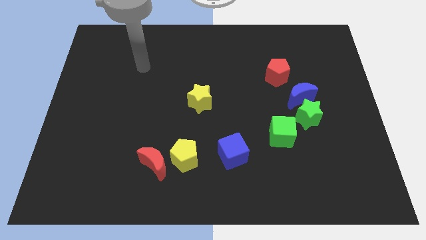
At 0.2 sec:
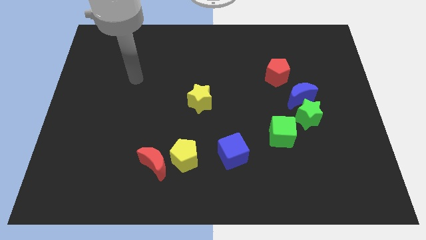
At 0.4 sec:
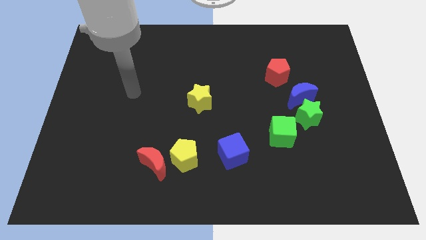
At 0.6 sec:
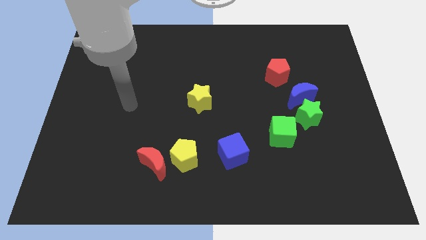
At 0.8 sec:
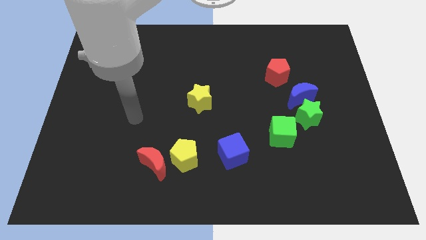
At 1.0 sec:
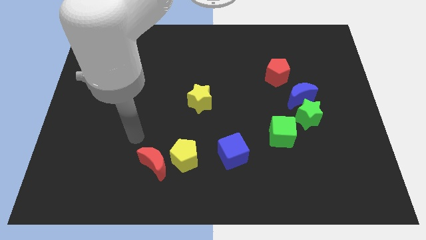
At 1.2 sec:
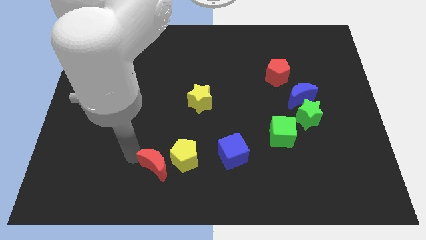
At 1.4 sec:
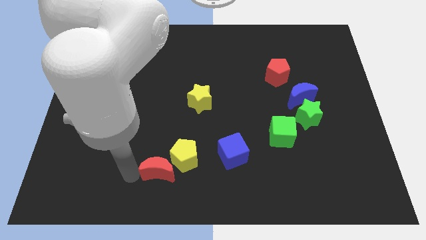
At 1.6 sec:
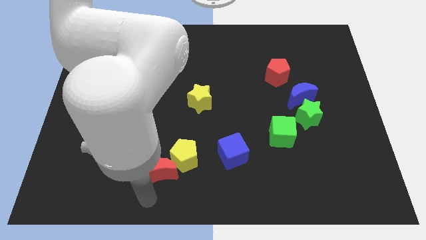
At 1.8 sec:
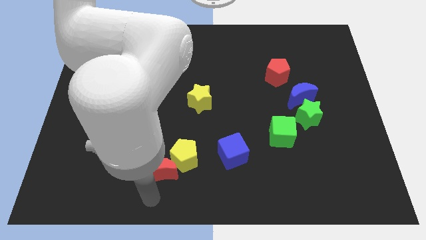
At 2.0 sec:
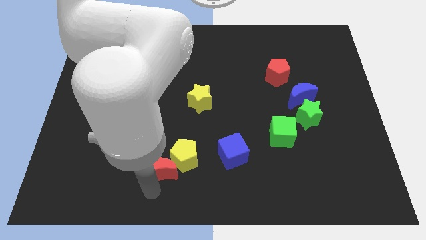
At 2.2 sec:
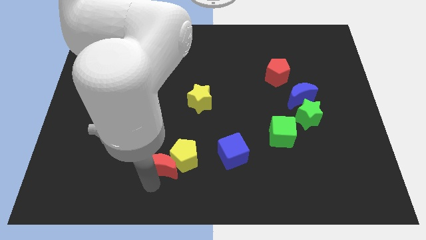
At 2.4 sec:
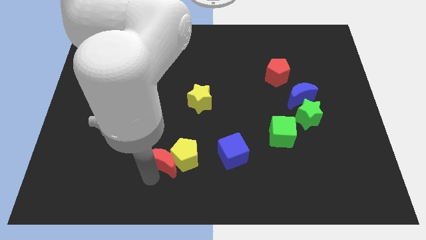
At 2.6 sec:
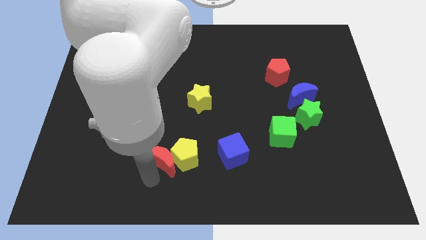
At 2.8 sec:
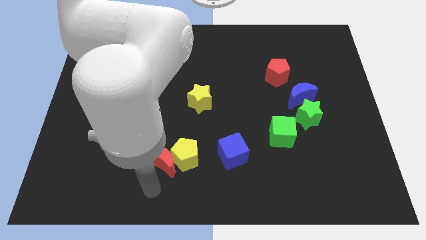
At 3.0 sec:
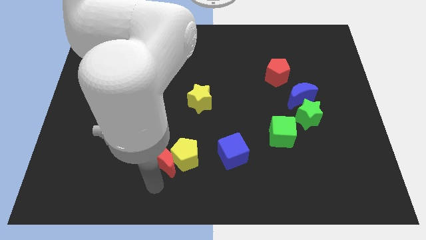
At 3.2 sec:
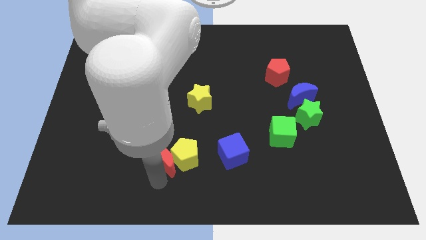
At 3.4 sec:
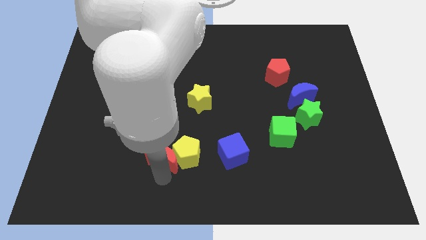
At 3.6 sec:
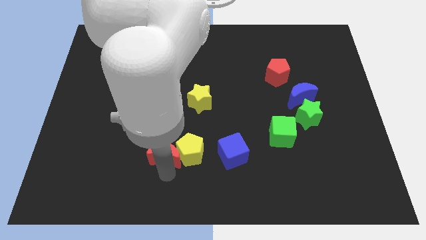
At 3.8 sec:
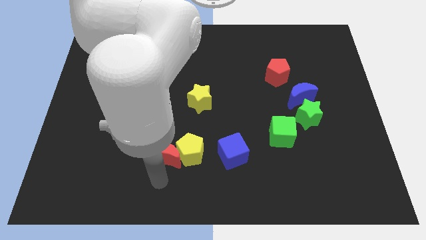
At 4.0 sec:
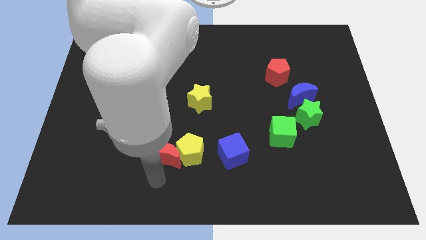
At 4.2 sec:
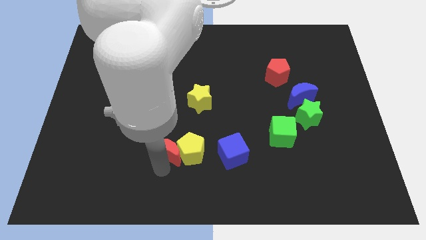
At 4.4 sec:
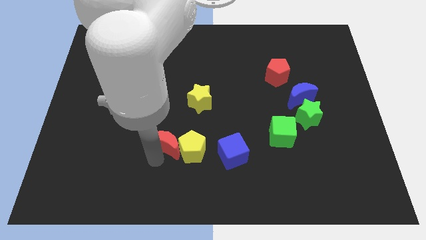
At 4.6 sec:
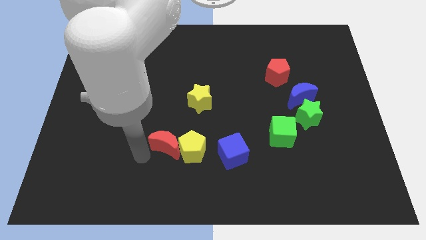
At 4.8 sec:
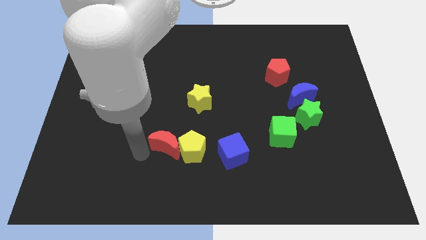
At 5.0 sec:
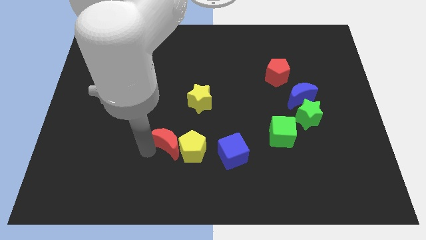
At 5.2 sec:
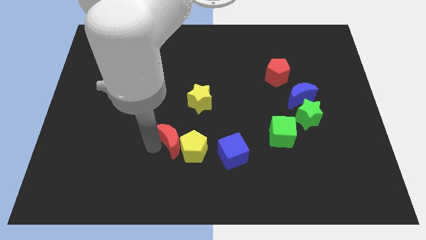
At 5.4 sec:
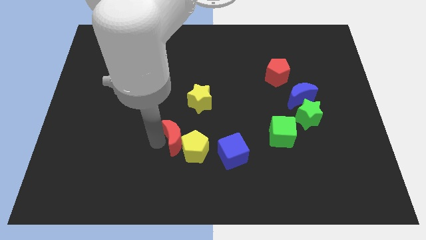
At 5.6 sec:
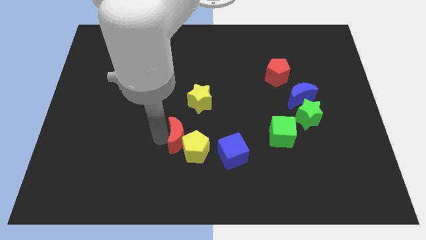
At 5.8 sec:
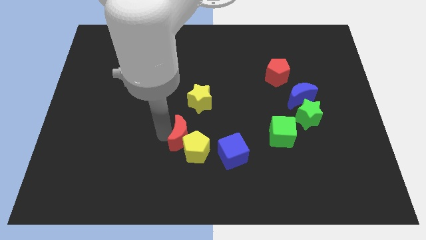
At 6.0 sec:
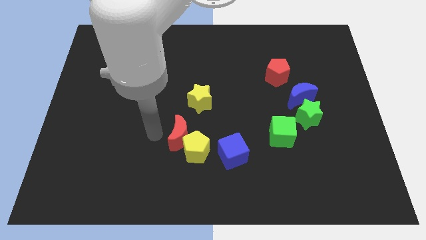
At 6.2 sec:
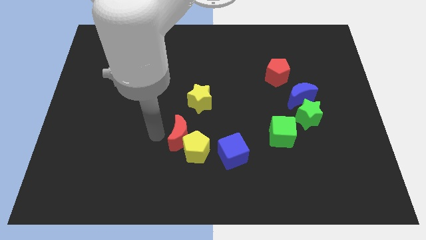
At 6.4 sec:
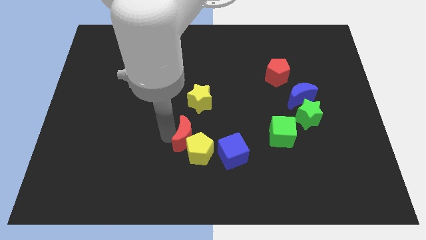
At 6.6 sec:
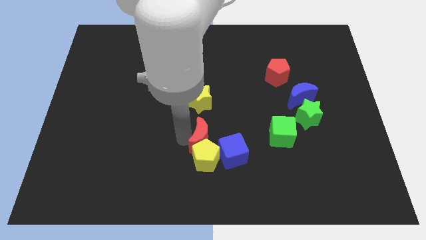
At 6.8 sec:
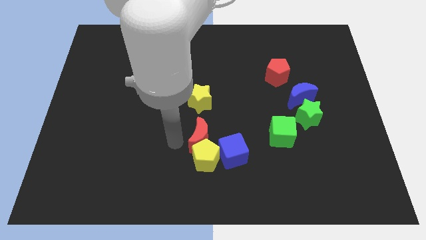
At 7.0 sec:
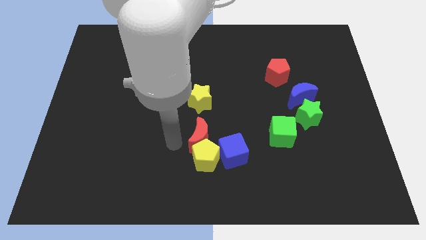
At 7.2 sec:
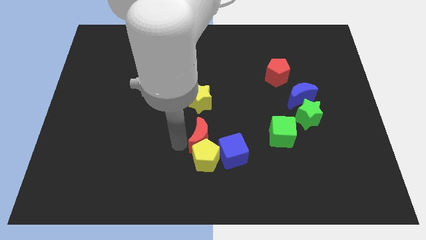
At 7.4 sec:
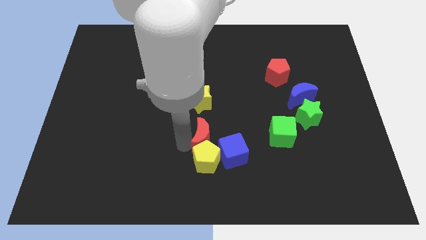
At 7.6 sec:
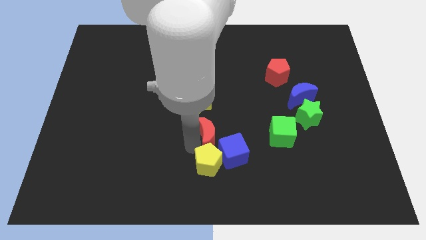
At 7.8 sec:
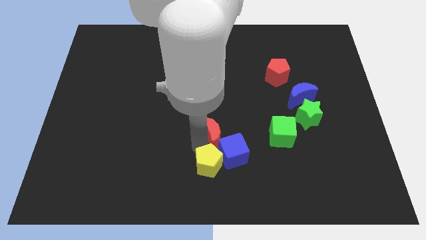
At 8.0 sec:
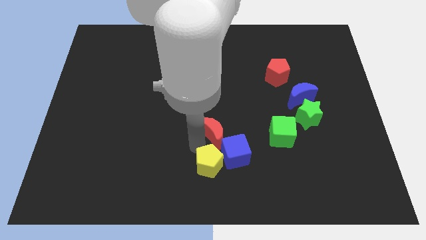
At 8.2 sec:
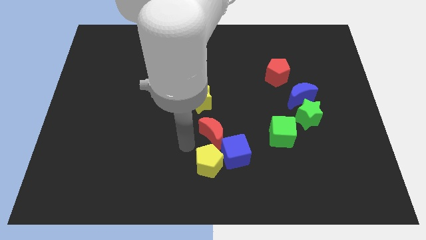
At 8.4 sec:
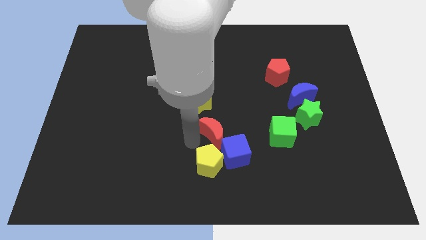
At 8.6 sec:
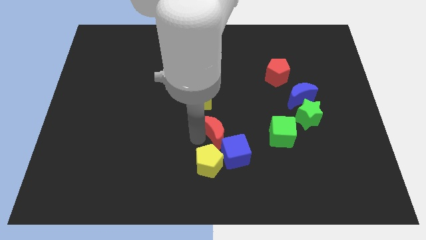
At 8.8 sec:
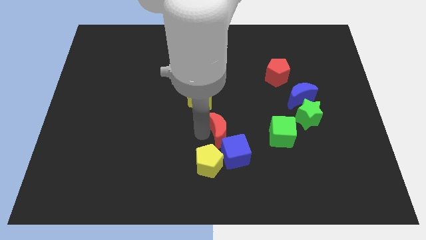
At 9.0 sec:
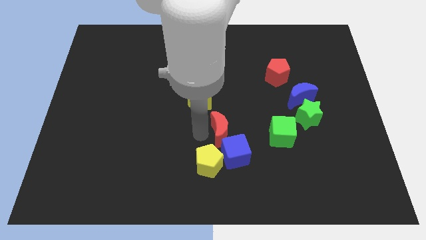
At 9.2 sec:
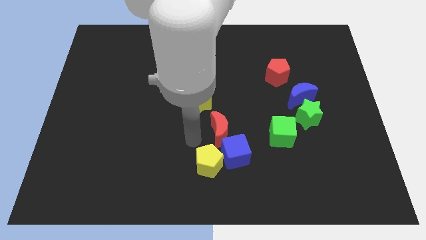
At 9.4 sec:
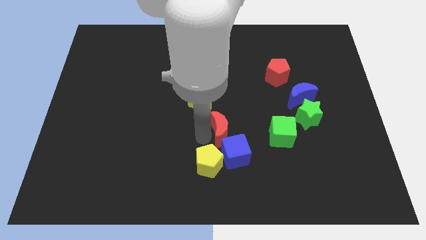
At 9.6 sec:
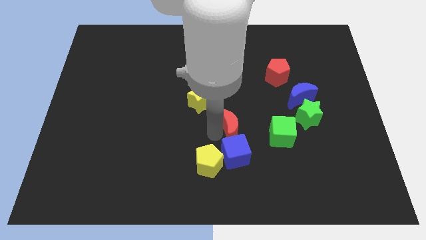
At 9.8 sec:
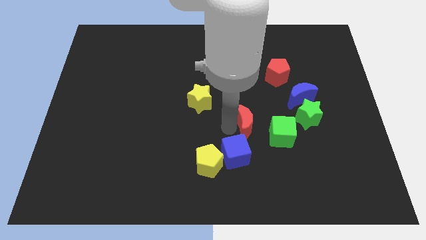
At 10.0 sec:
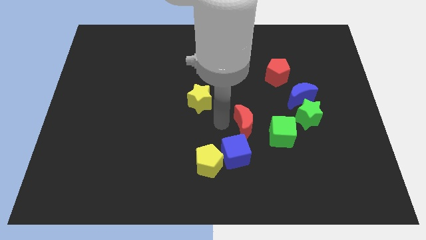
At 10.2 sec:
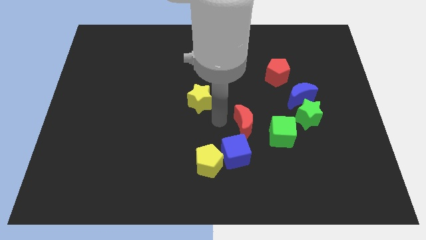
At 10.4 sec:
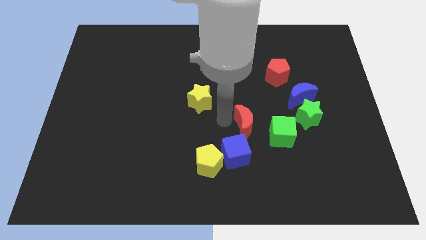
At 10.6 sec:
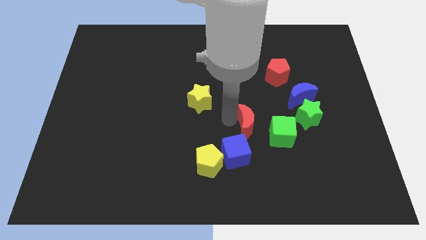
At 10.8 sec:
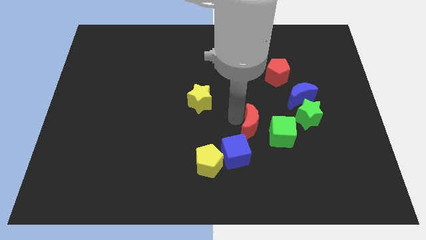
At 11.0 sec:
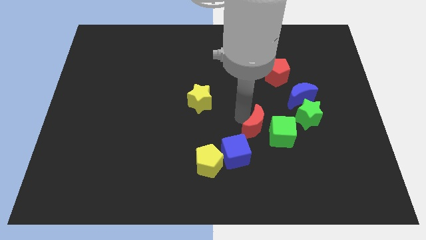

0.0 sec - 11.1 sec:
slide the red moon close to the green cube

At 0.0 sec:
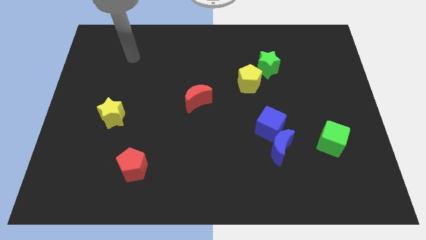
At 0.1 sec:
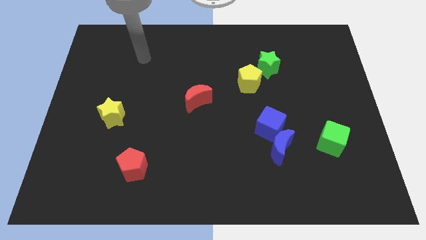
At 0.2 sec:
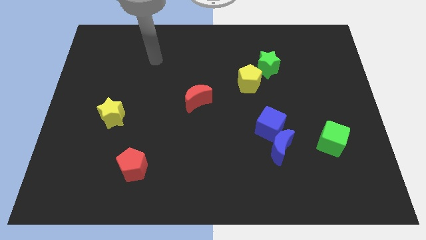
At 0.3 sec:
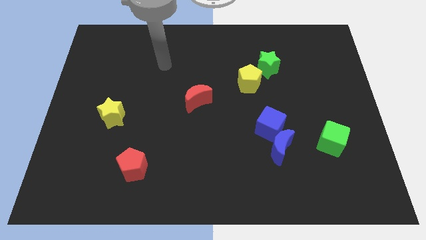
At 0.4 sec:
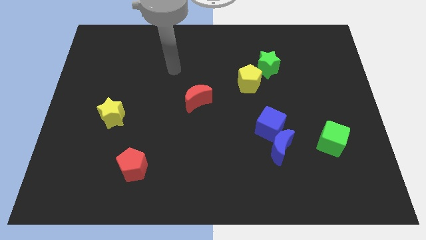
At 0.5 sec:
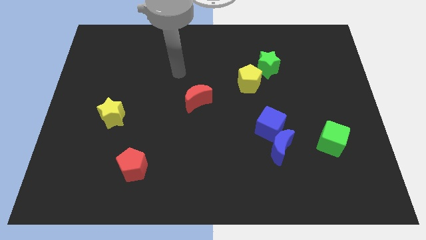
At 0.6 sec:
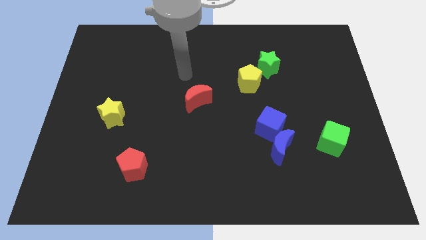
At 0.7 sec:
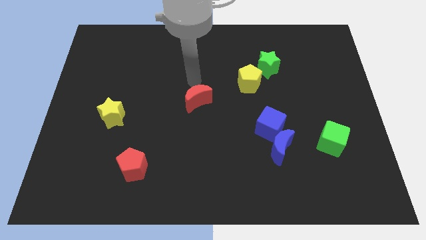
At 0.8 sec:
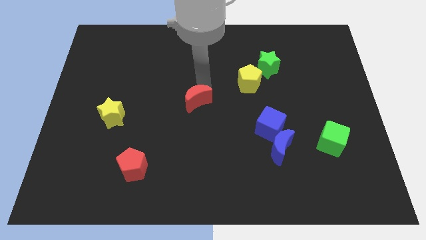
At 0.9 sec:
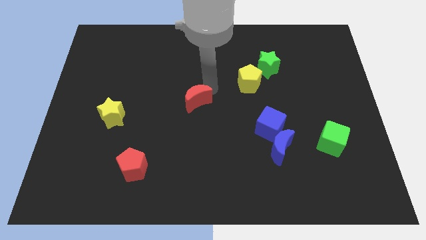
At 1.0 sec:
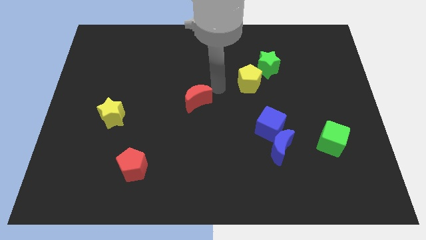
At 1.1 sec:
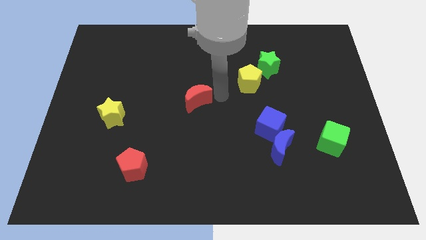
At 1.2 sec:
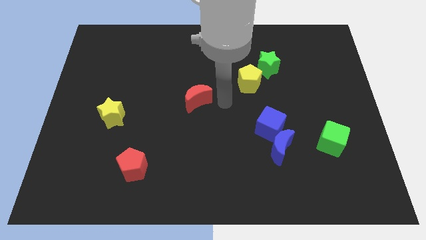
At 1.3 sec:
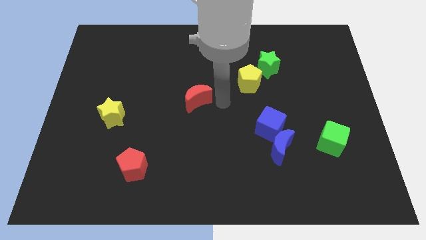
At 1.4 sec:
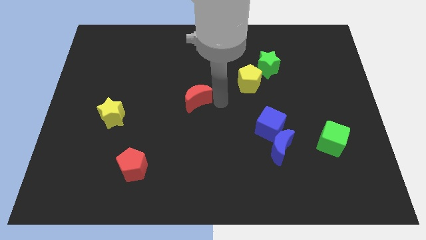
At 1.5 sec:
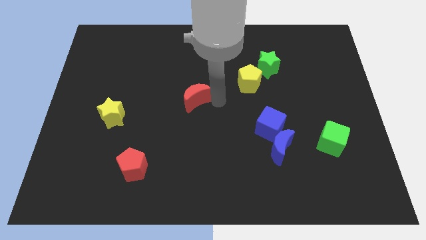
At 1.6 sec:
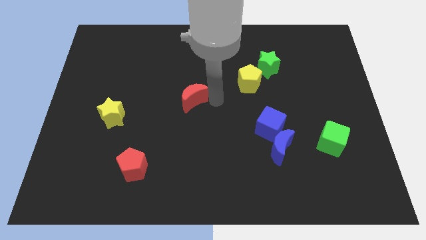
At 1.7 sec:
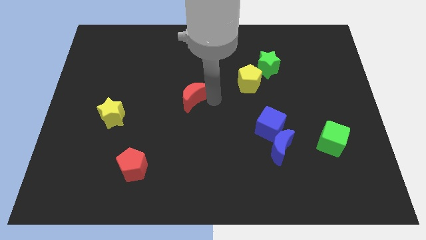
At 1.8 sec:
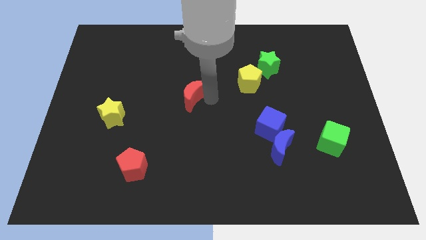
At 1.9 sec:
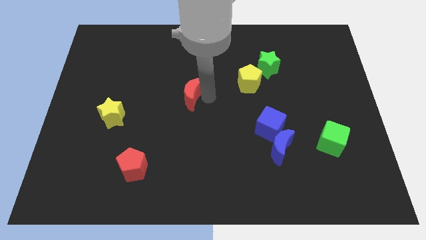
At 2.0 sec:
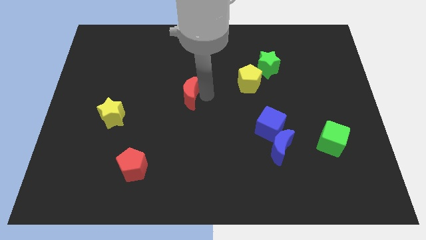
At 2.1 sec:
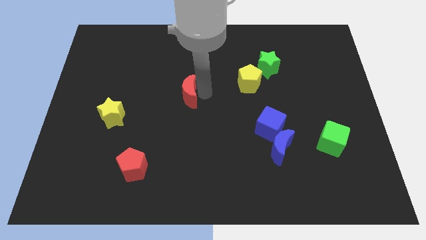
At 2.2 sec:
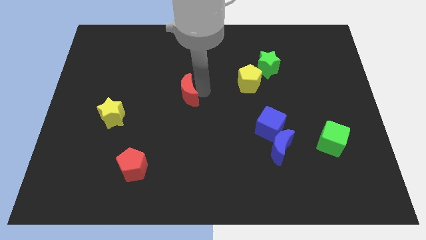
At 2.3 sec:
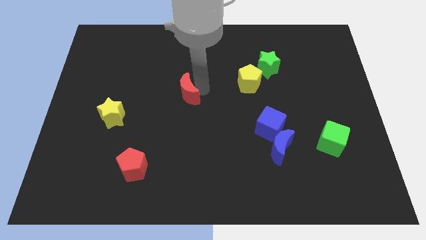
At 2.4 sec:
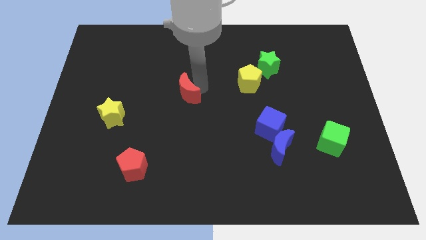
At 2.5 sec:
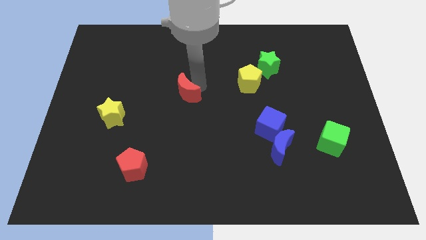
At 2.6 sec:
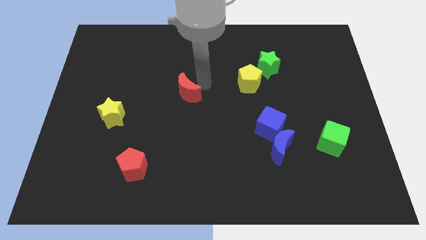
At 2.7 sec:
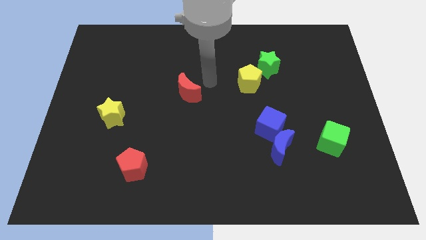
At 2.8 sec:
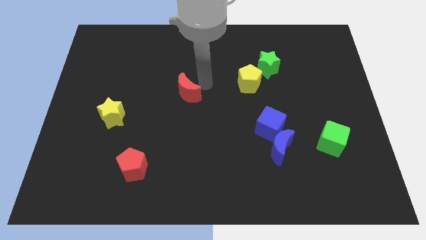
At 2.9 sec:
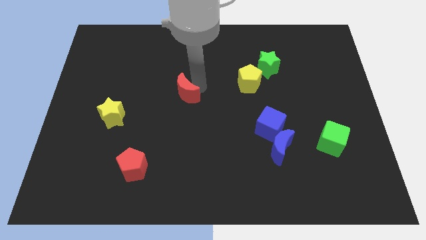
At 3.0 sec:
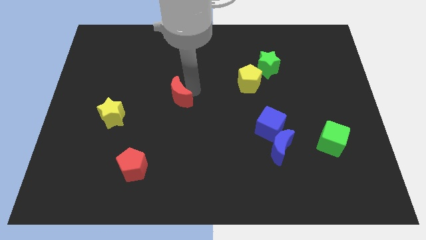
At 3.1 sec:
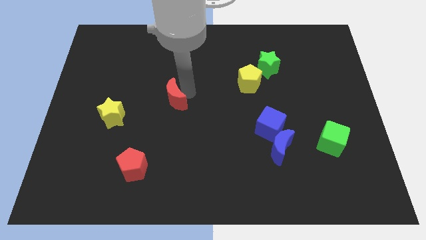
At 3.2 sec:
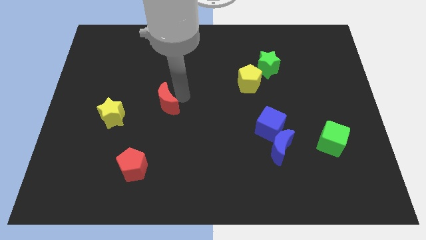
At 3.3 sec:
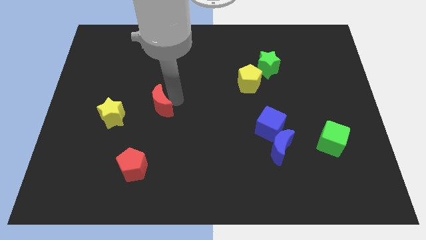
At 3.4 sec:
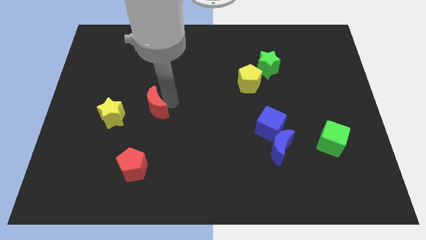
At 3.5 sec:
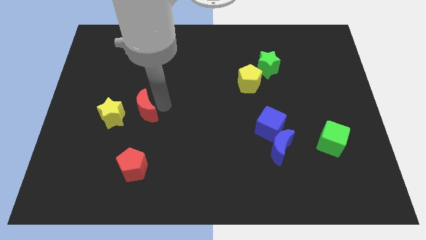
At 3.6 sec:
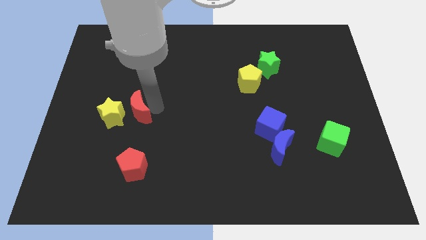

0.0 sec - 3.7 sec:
push the red moon next to the yellow star
